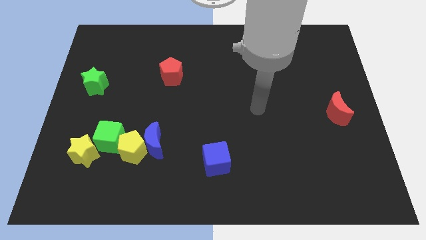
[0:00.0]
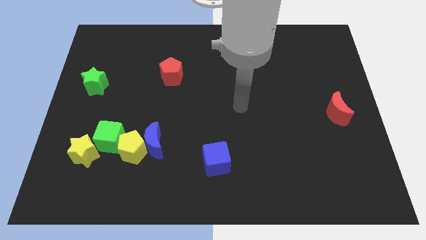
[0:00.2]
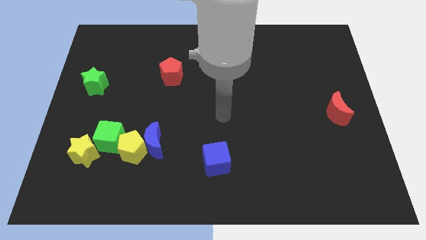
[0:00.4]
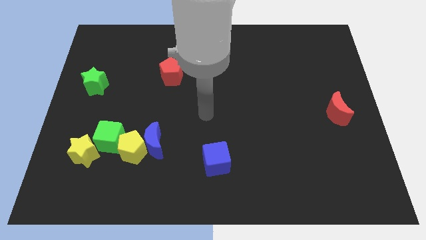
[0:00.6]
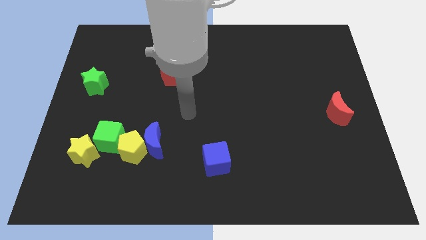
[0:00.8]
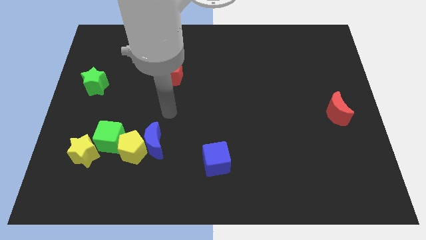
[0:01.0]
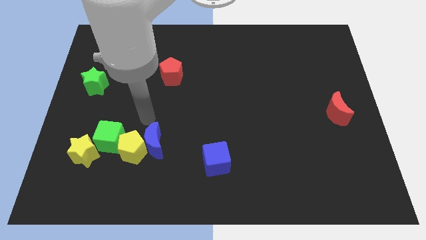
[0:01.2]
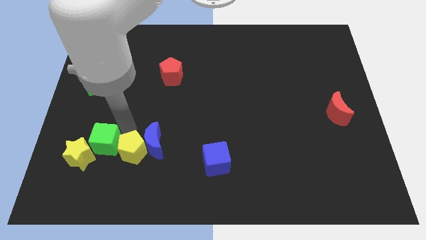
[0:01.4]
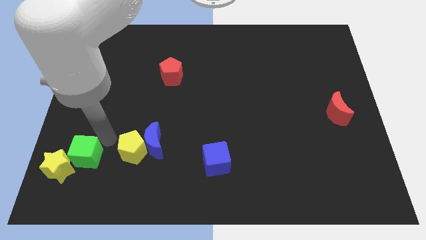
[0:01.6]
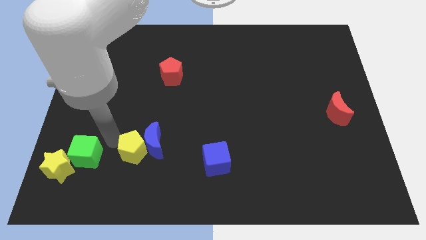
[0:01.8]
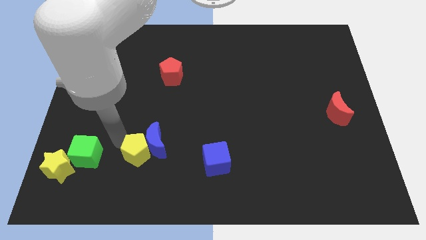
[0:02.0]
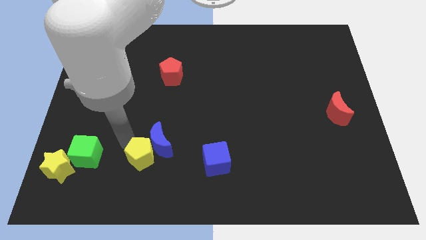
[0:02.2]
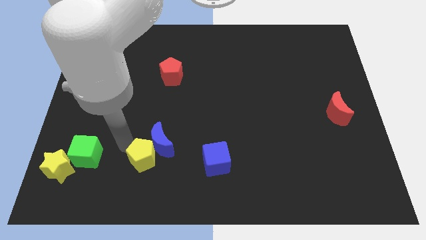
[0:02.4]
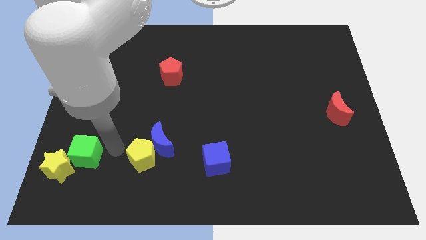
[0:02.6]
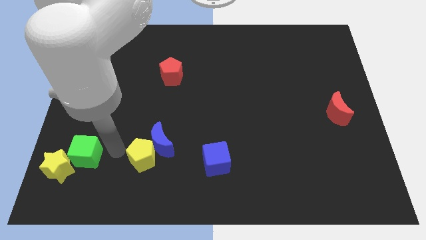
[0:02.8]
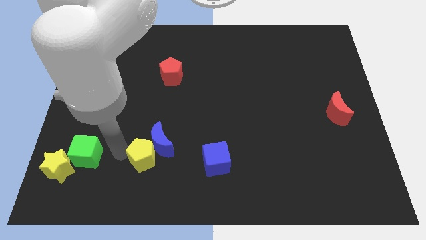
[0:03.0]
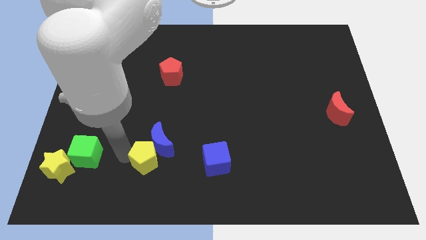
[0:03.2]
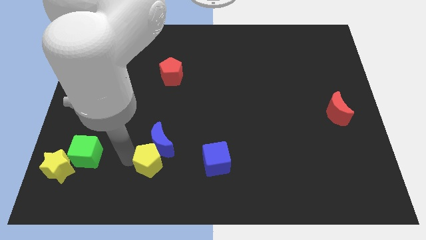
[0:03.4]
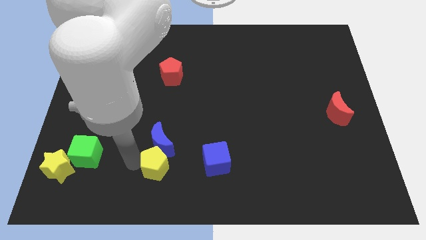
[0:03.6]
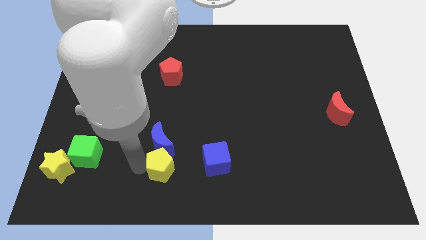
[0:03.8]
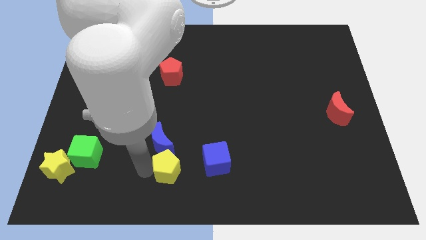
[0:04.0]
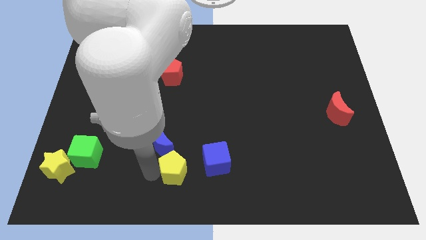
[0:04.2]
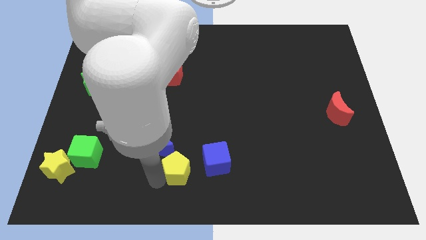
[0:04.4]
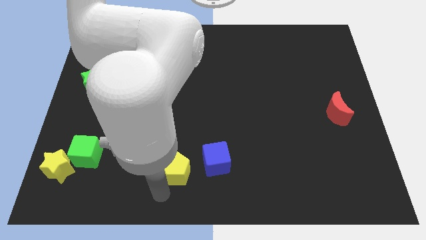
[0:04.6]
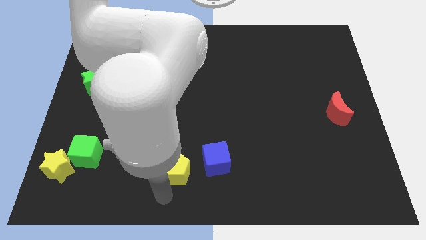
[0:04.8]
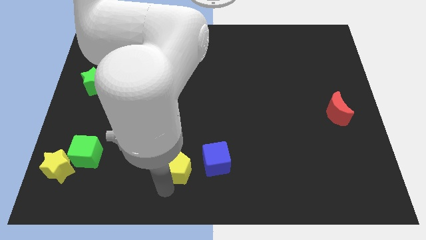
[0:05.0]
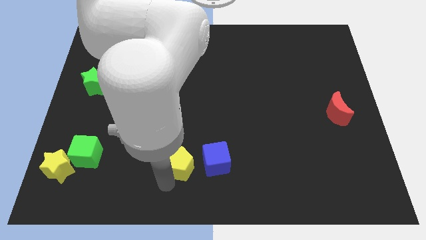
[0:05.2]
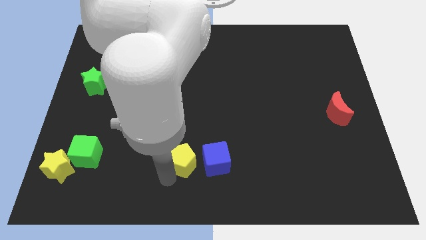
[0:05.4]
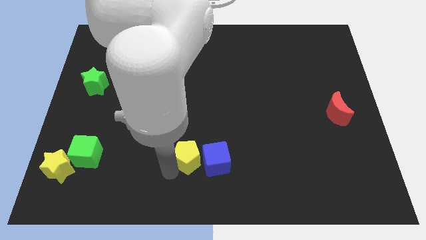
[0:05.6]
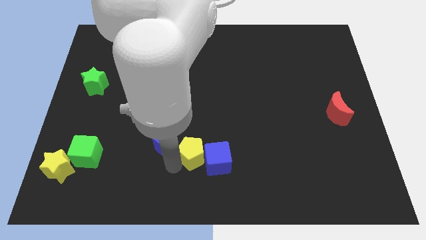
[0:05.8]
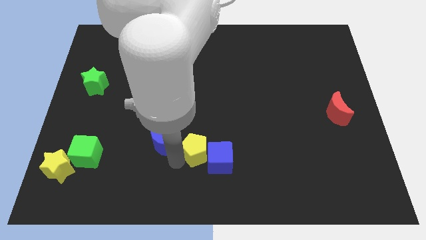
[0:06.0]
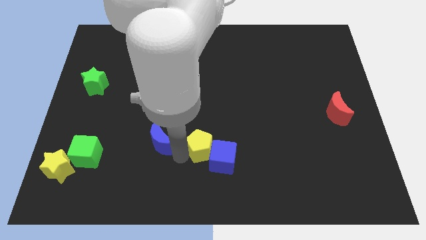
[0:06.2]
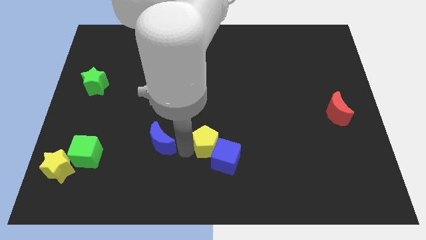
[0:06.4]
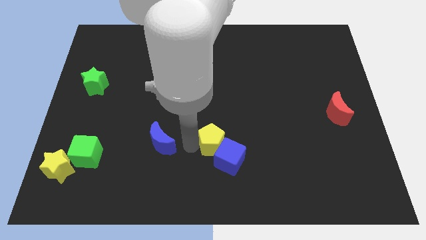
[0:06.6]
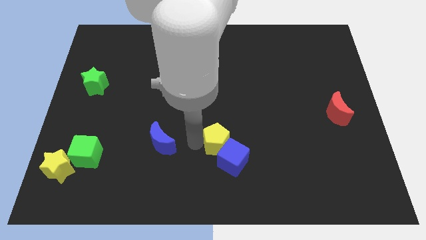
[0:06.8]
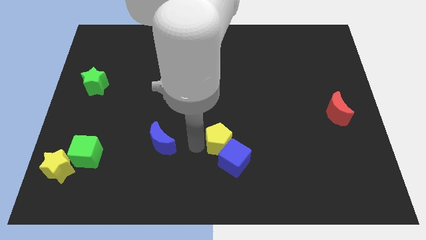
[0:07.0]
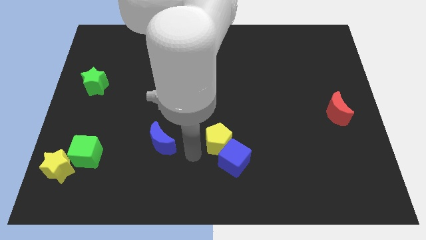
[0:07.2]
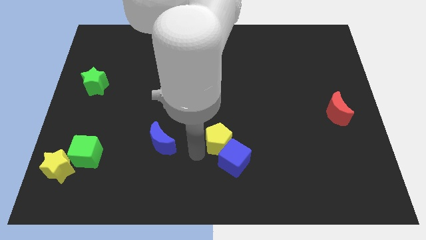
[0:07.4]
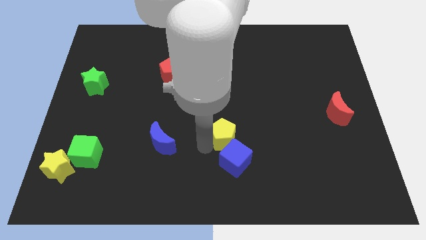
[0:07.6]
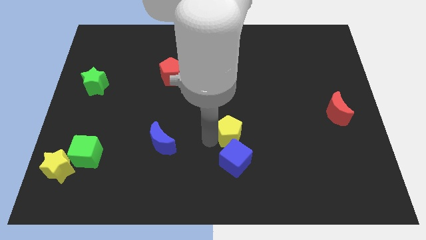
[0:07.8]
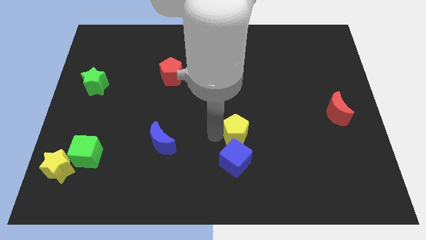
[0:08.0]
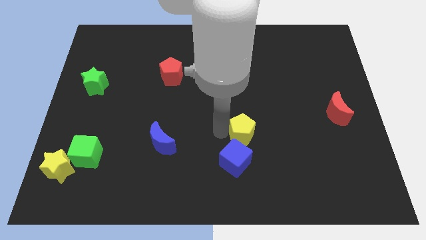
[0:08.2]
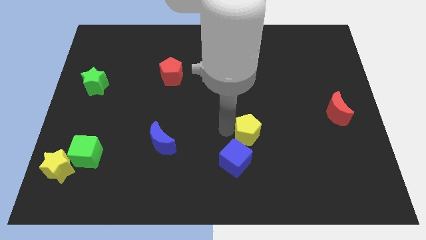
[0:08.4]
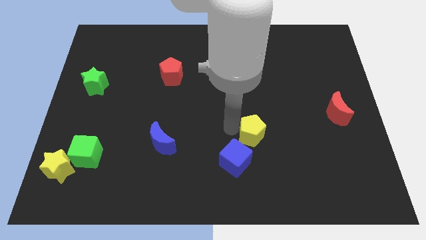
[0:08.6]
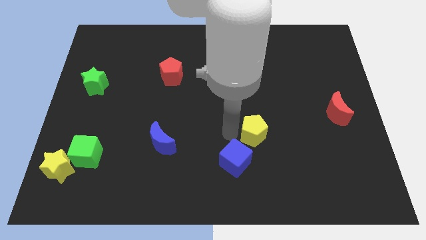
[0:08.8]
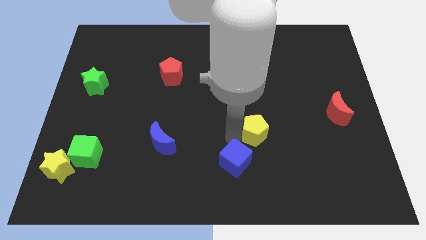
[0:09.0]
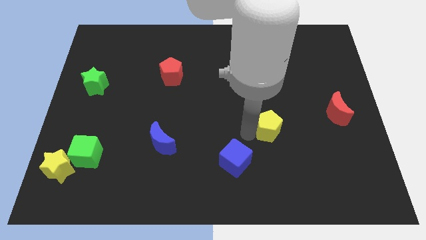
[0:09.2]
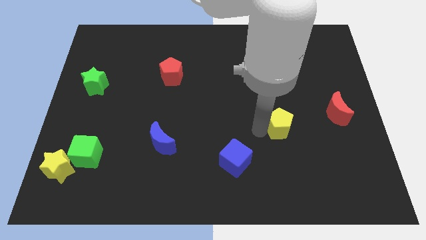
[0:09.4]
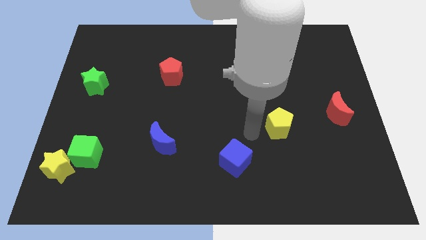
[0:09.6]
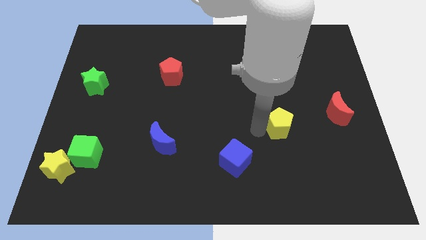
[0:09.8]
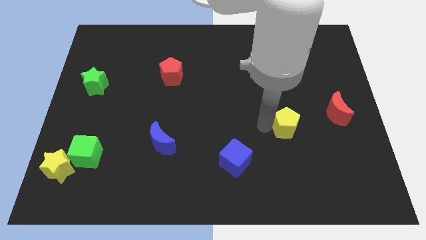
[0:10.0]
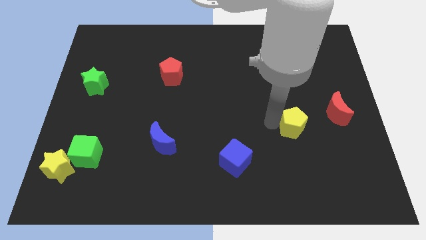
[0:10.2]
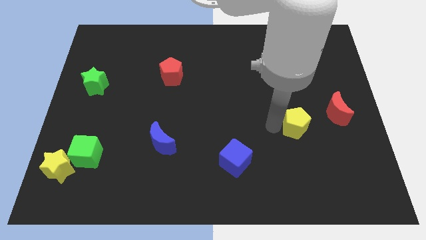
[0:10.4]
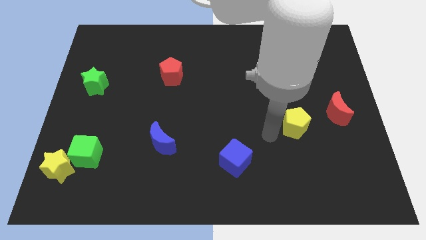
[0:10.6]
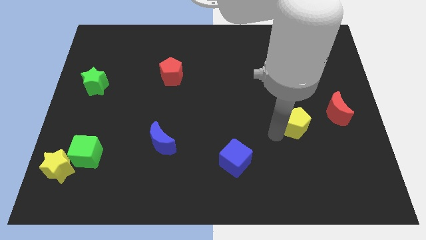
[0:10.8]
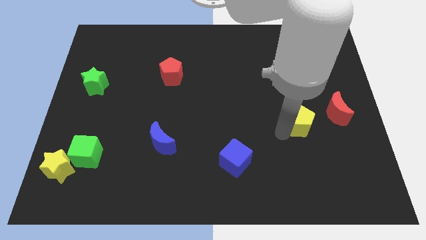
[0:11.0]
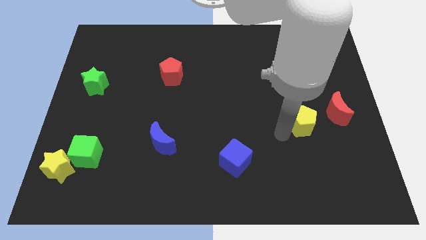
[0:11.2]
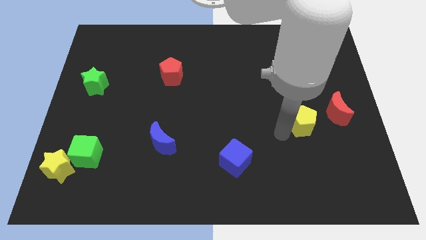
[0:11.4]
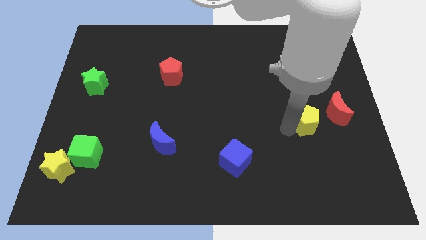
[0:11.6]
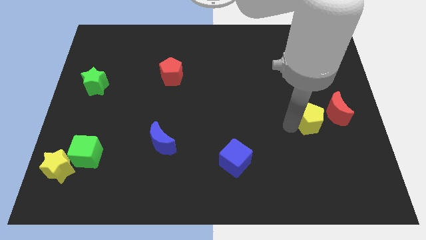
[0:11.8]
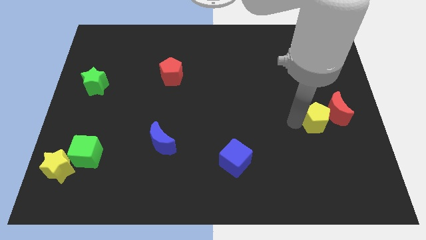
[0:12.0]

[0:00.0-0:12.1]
put the yellow pentagon close to the red moon
